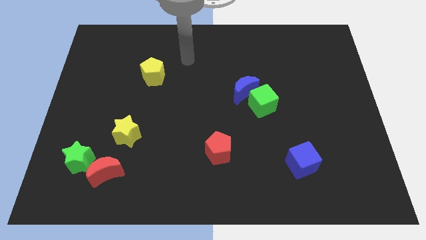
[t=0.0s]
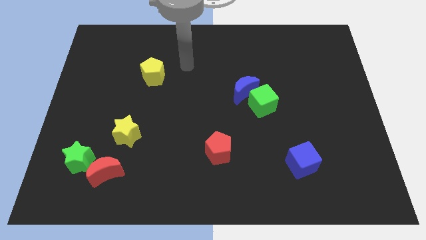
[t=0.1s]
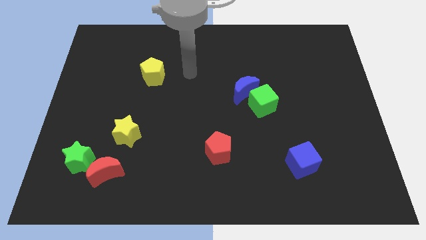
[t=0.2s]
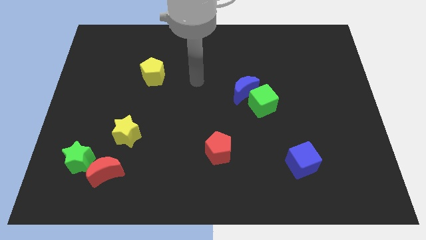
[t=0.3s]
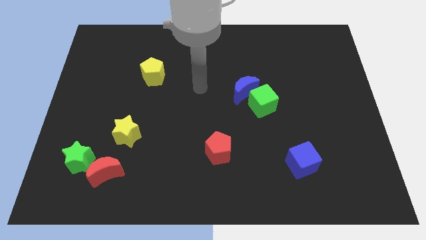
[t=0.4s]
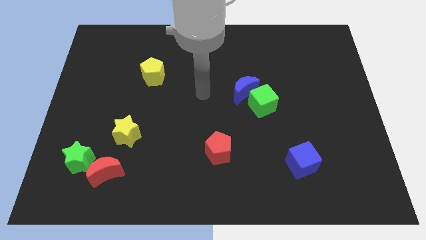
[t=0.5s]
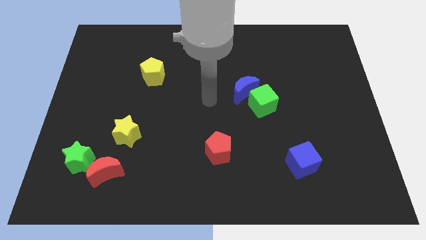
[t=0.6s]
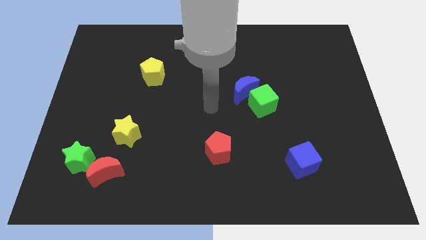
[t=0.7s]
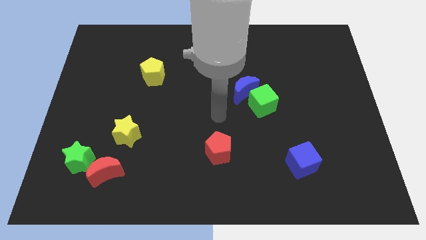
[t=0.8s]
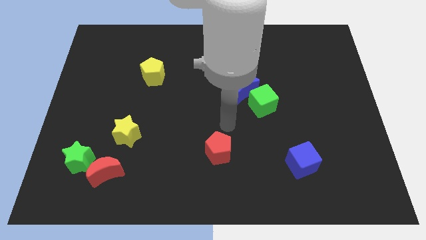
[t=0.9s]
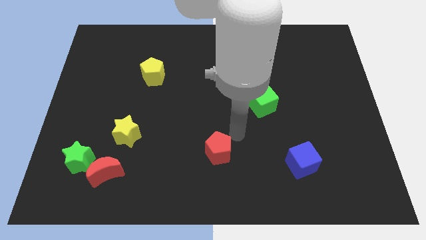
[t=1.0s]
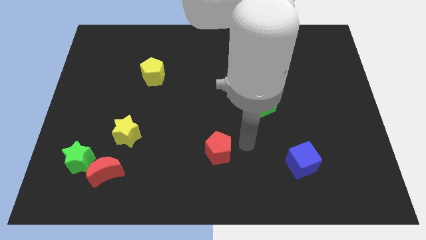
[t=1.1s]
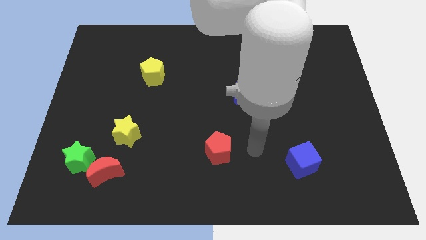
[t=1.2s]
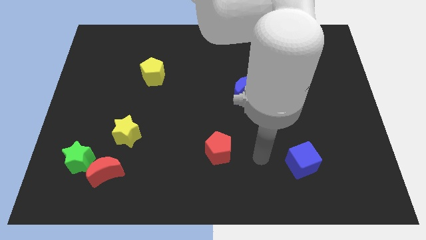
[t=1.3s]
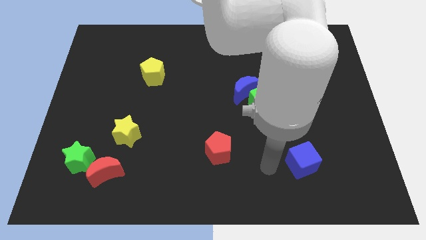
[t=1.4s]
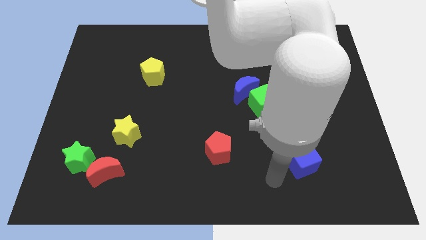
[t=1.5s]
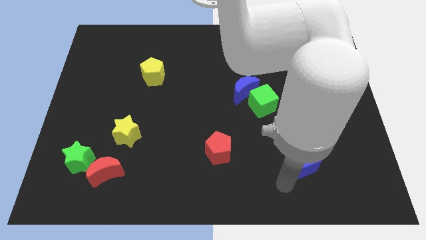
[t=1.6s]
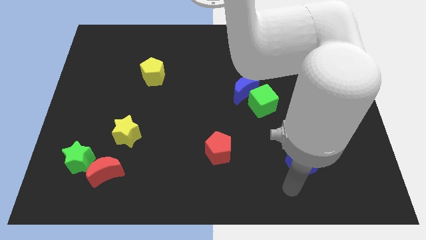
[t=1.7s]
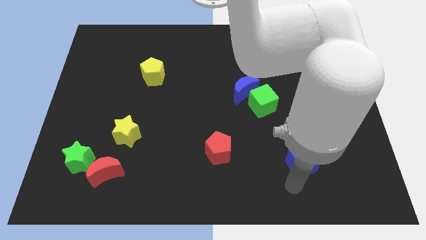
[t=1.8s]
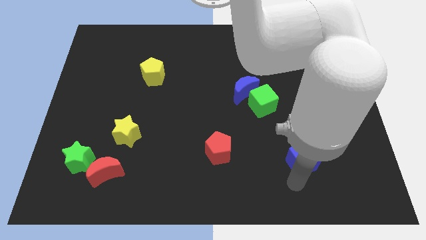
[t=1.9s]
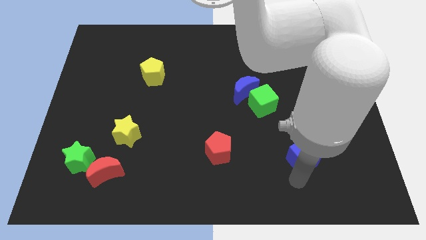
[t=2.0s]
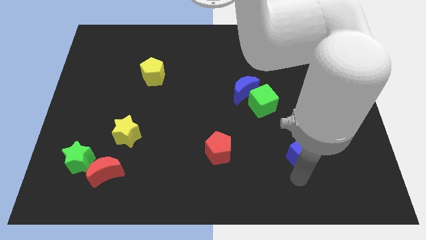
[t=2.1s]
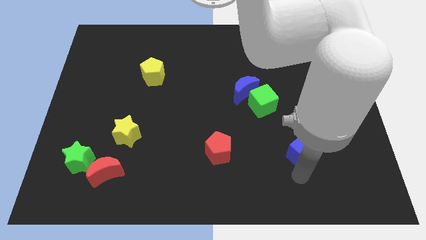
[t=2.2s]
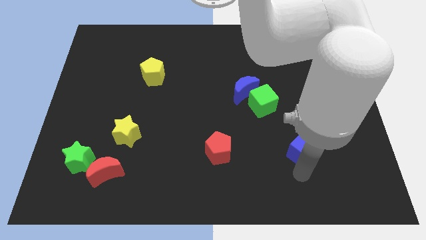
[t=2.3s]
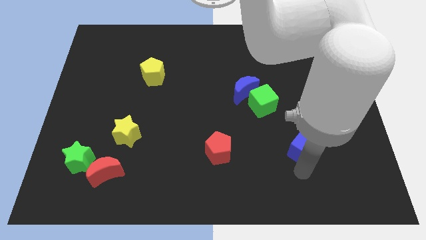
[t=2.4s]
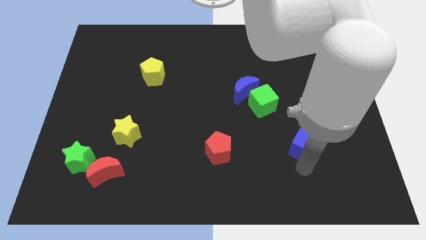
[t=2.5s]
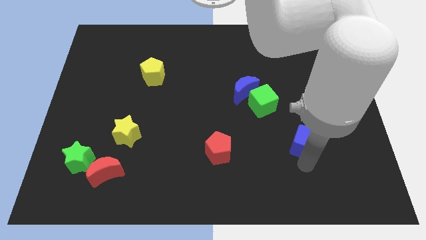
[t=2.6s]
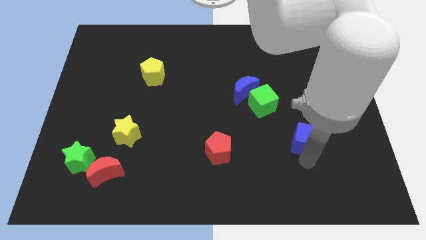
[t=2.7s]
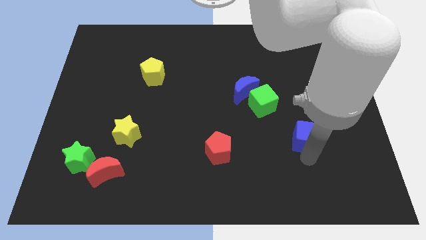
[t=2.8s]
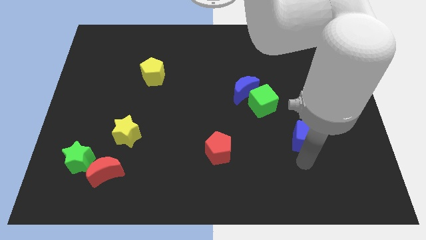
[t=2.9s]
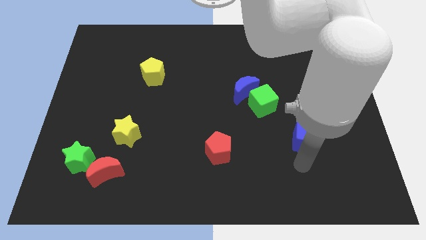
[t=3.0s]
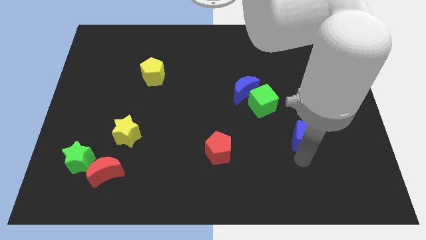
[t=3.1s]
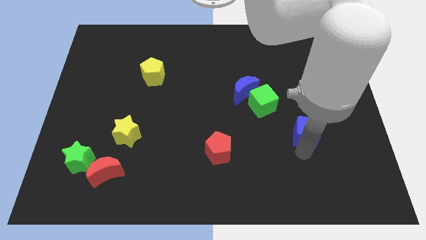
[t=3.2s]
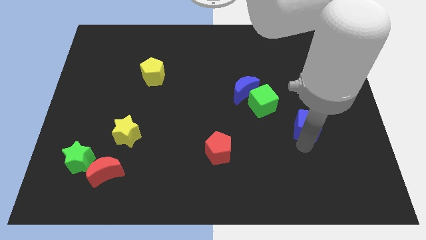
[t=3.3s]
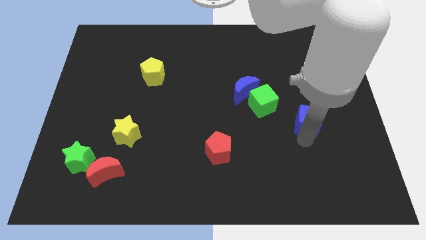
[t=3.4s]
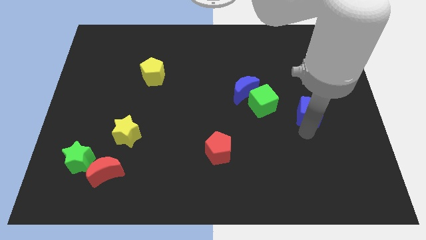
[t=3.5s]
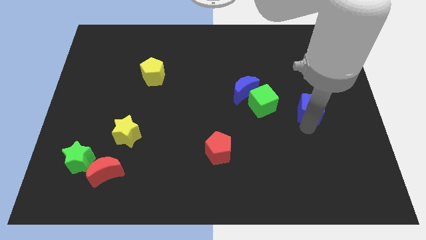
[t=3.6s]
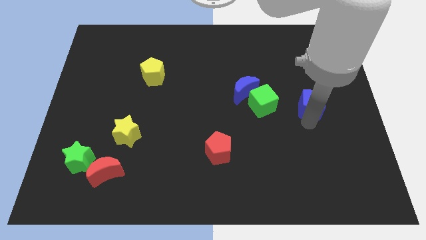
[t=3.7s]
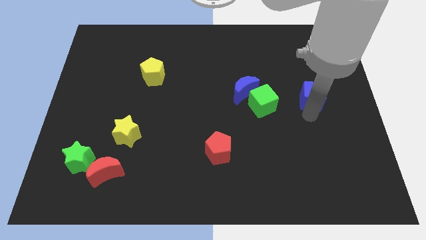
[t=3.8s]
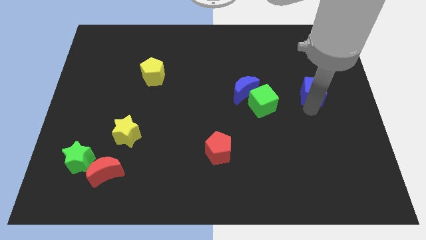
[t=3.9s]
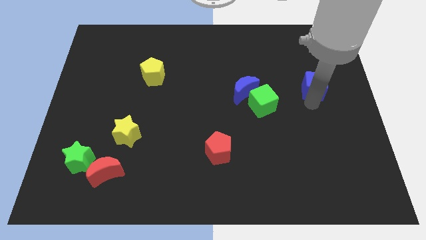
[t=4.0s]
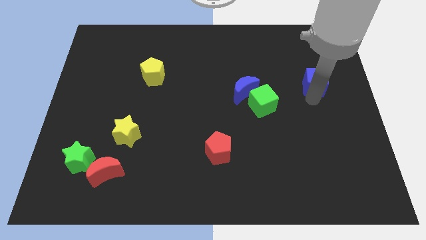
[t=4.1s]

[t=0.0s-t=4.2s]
push the blue cube upwards

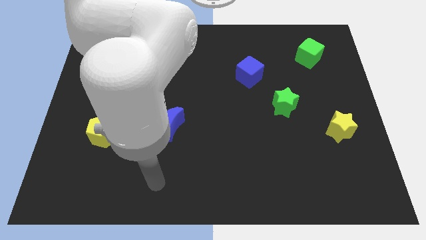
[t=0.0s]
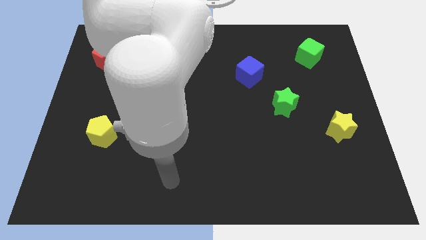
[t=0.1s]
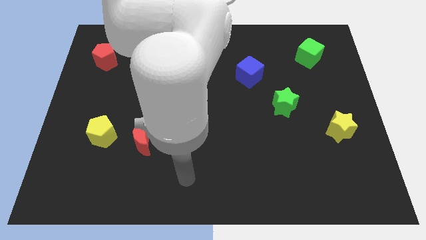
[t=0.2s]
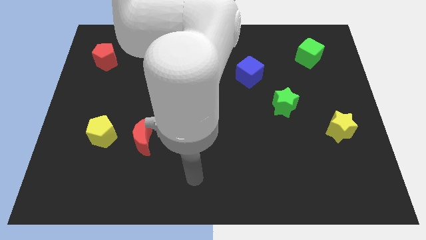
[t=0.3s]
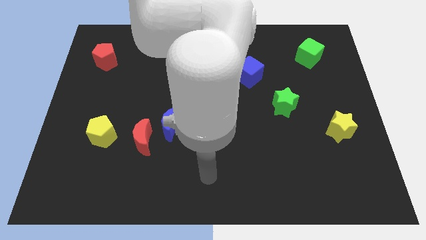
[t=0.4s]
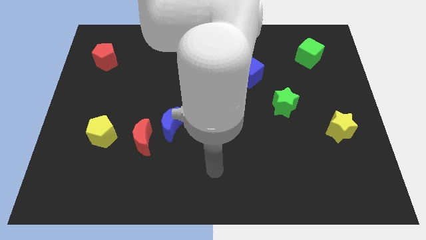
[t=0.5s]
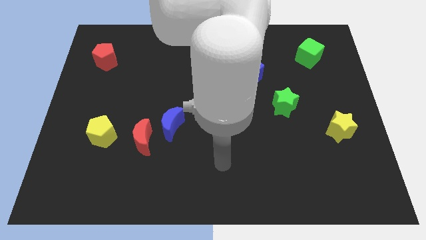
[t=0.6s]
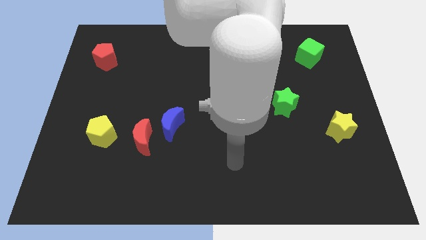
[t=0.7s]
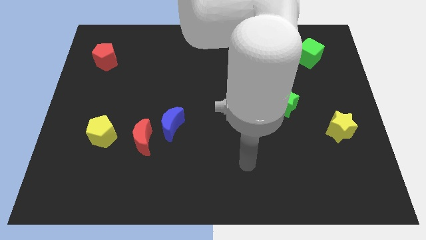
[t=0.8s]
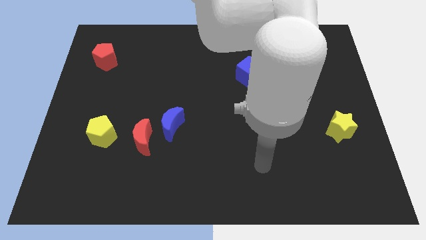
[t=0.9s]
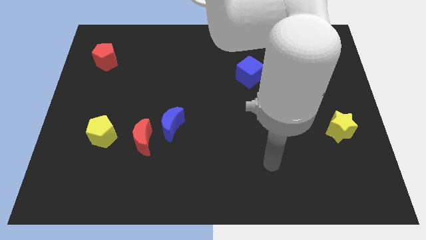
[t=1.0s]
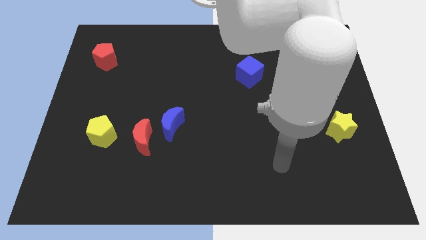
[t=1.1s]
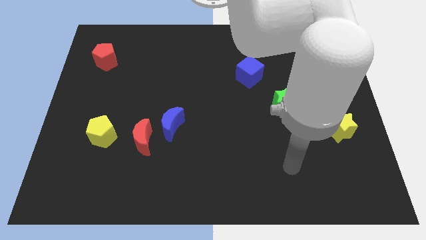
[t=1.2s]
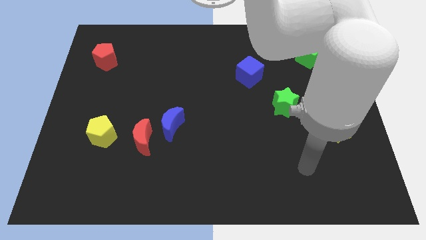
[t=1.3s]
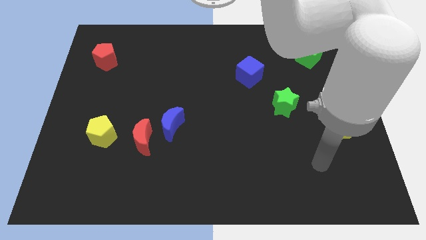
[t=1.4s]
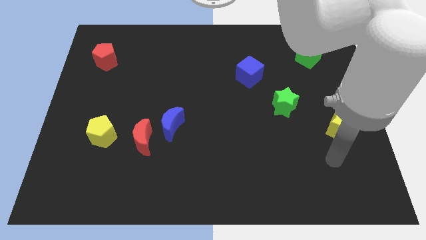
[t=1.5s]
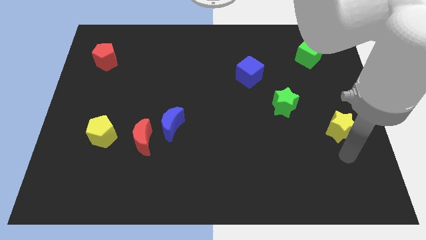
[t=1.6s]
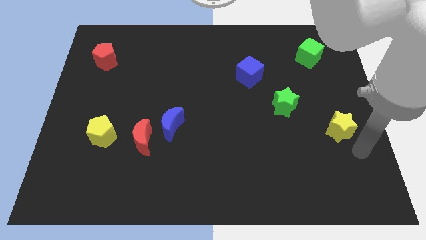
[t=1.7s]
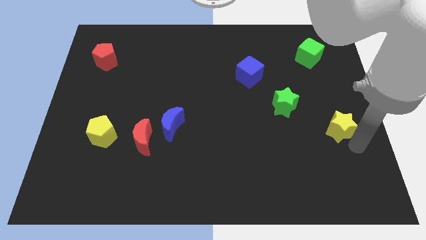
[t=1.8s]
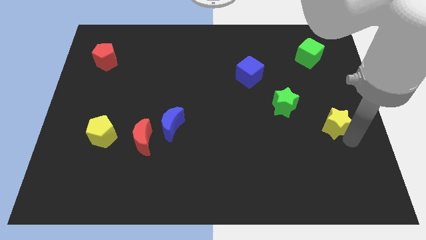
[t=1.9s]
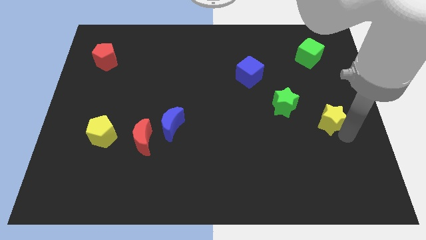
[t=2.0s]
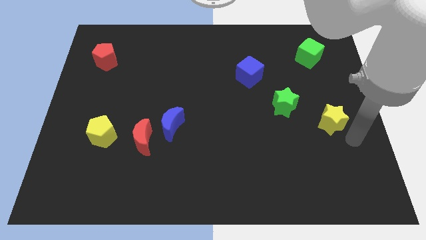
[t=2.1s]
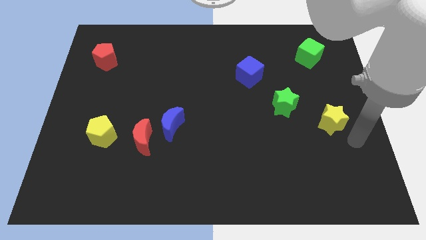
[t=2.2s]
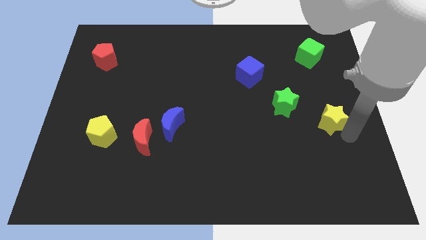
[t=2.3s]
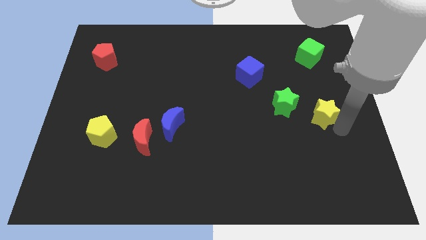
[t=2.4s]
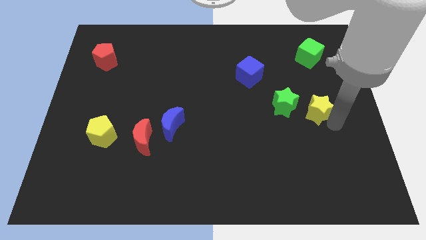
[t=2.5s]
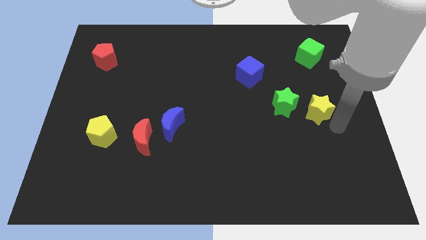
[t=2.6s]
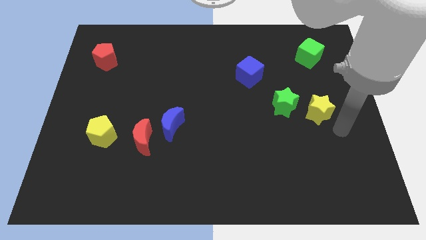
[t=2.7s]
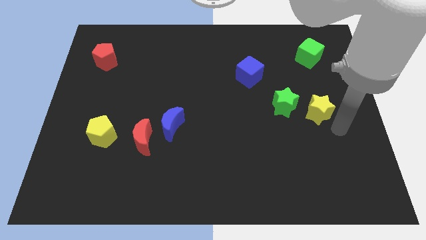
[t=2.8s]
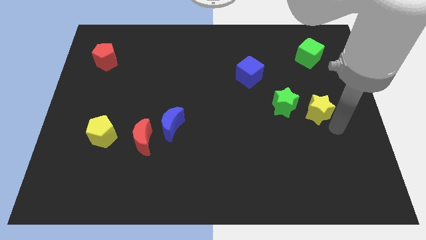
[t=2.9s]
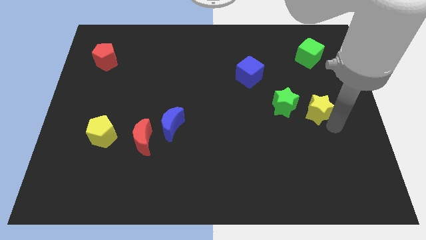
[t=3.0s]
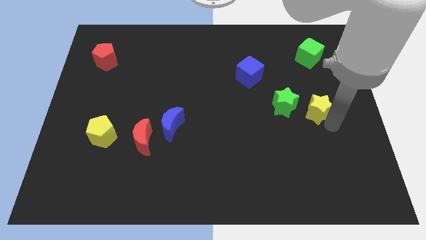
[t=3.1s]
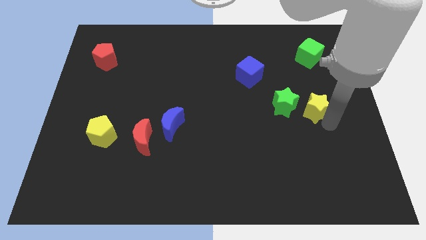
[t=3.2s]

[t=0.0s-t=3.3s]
move the yellow star upwards and left a little bit

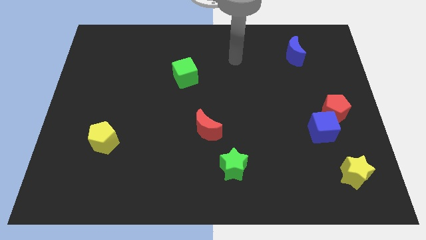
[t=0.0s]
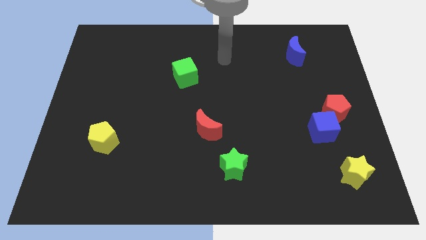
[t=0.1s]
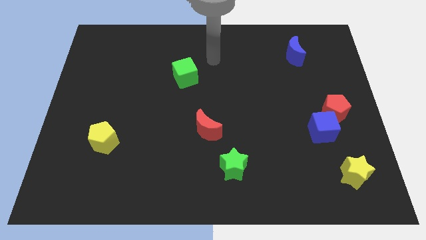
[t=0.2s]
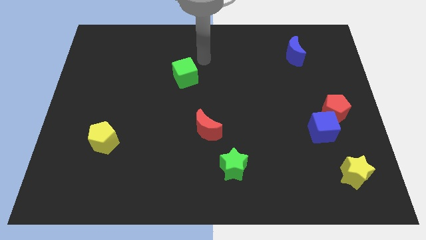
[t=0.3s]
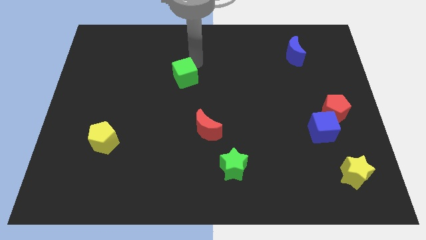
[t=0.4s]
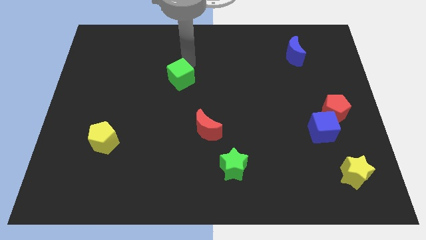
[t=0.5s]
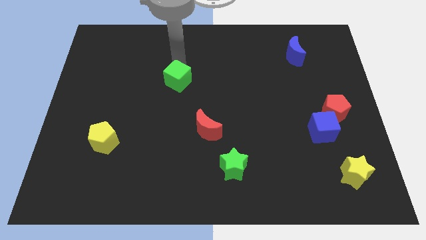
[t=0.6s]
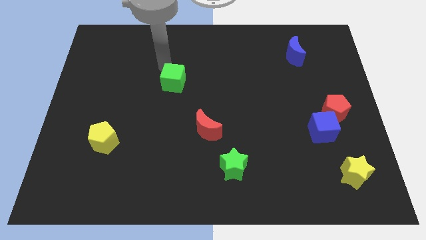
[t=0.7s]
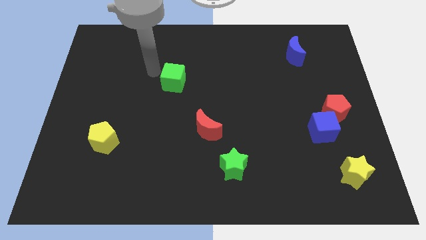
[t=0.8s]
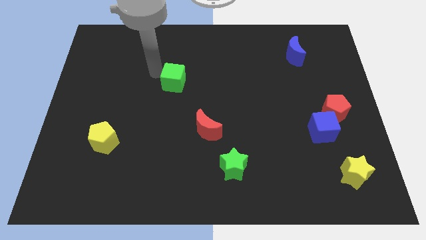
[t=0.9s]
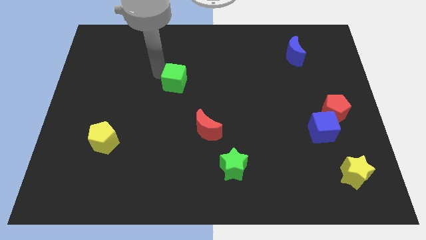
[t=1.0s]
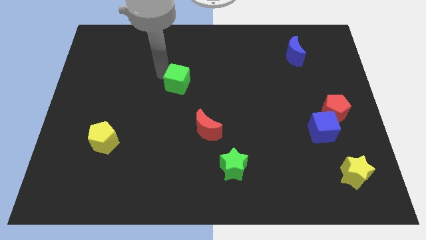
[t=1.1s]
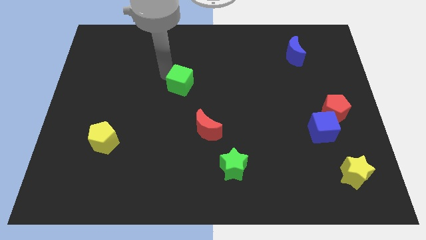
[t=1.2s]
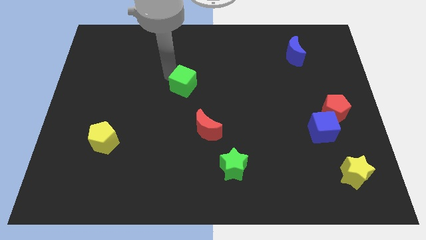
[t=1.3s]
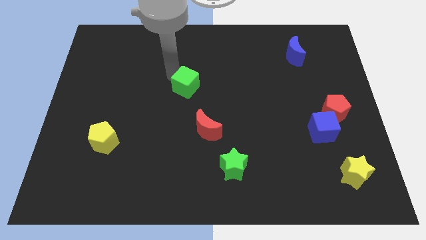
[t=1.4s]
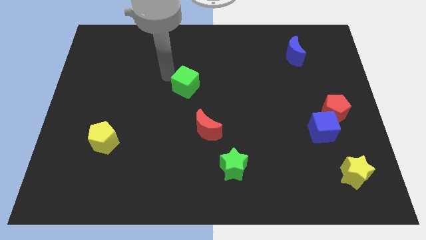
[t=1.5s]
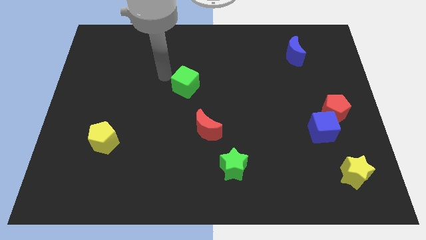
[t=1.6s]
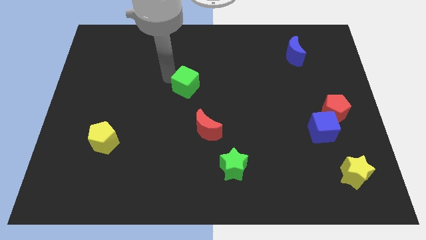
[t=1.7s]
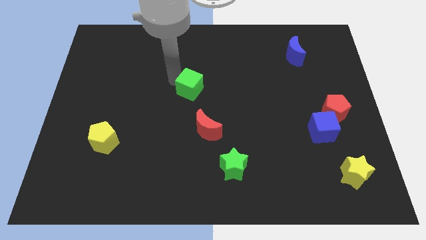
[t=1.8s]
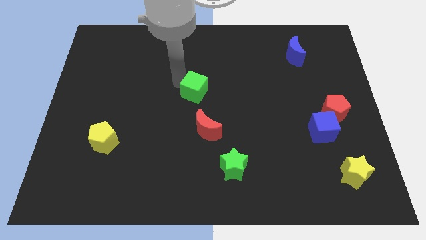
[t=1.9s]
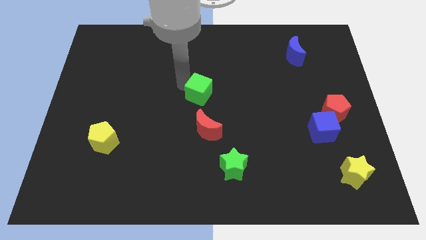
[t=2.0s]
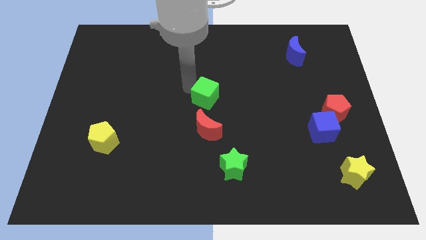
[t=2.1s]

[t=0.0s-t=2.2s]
push the green cube down and then right a bit
